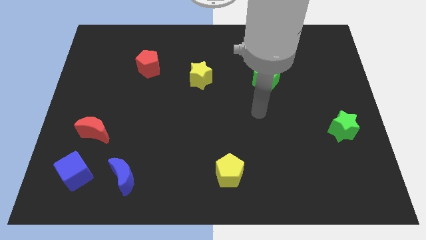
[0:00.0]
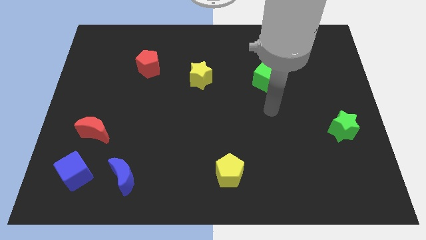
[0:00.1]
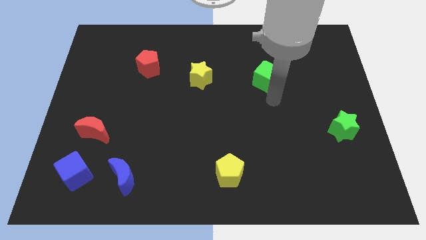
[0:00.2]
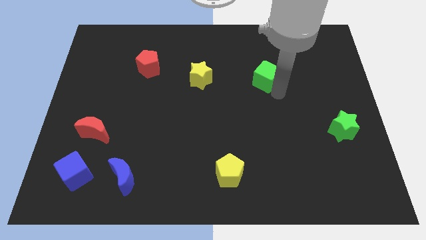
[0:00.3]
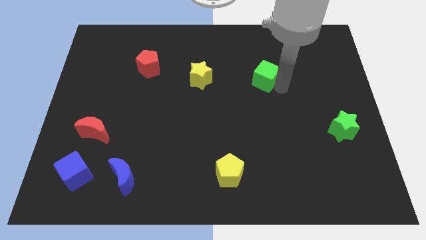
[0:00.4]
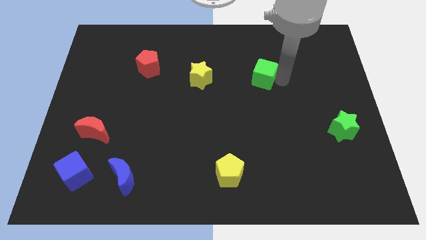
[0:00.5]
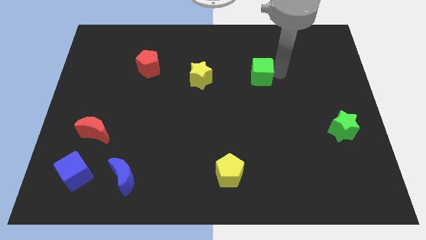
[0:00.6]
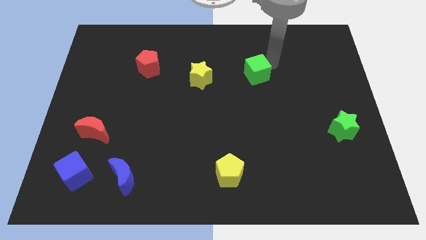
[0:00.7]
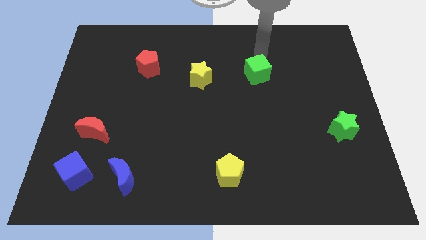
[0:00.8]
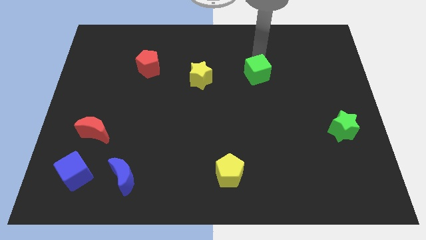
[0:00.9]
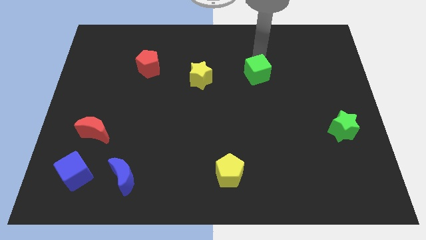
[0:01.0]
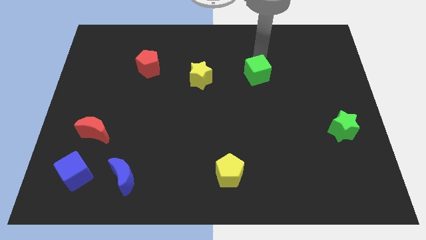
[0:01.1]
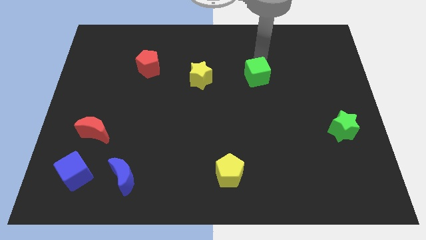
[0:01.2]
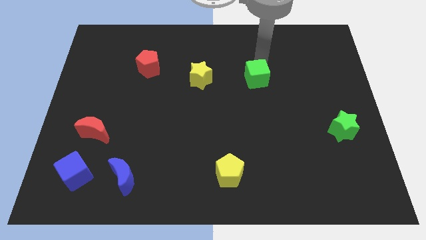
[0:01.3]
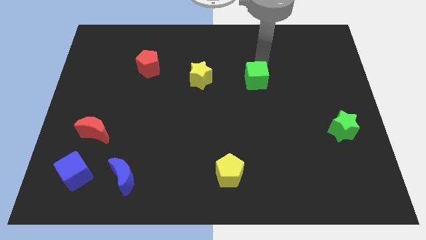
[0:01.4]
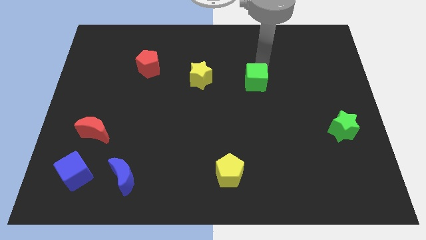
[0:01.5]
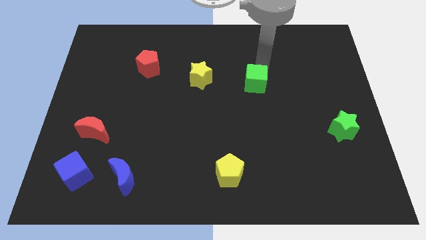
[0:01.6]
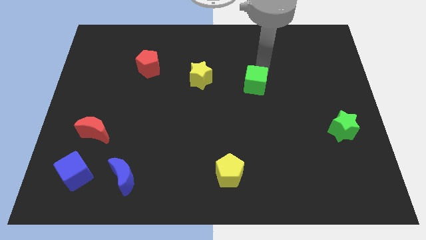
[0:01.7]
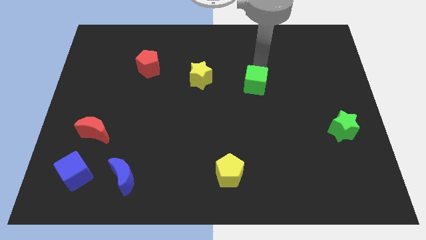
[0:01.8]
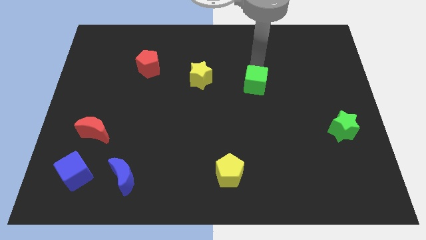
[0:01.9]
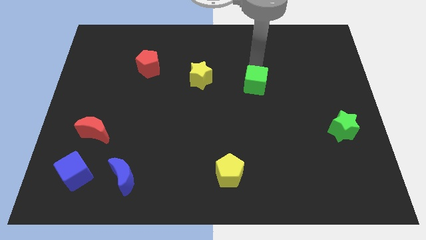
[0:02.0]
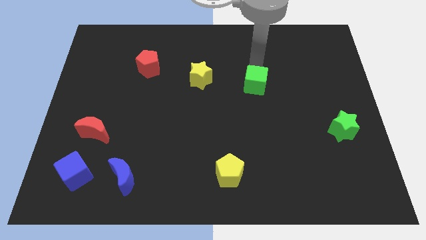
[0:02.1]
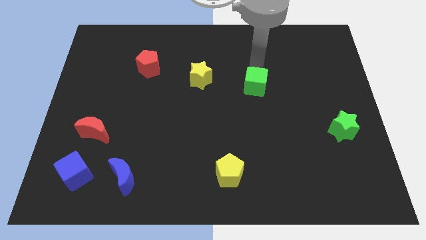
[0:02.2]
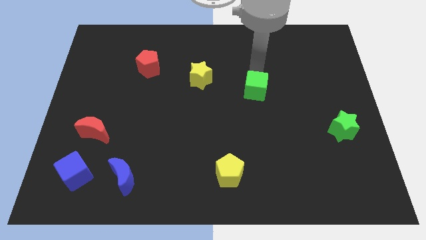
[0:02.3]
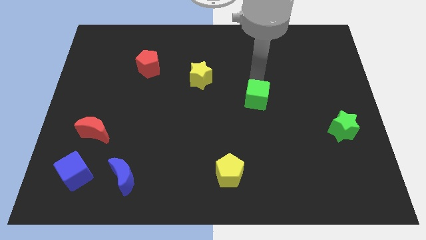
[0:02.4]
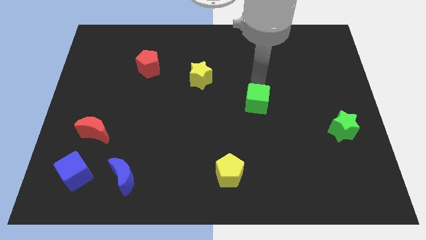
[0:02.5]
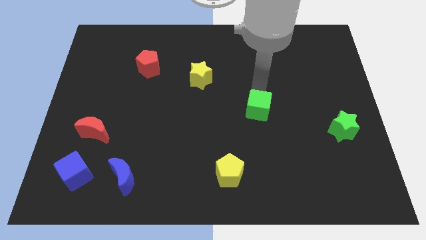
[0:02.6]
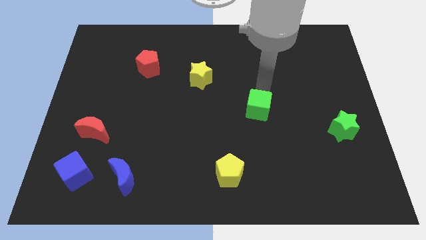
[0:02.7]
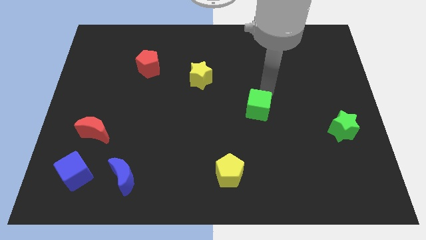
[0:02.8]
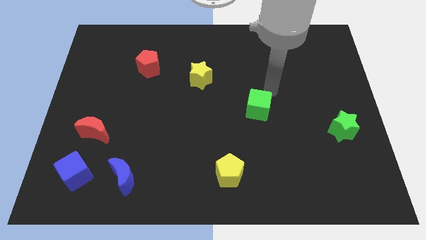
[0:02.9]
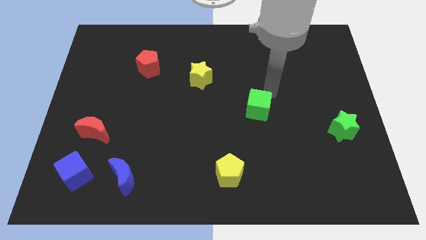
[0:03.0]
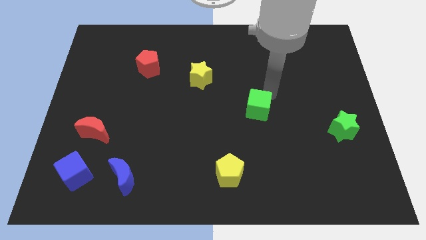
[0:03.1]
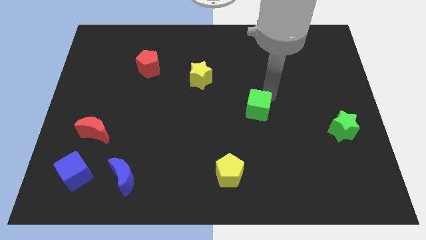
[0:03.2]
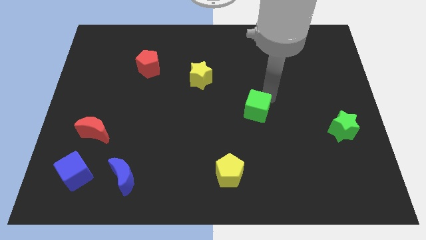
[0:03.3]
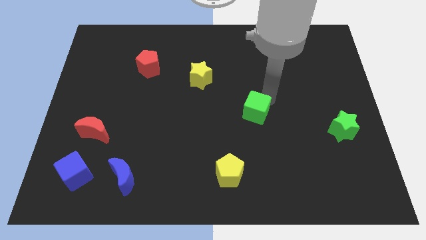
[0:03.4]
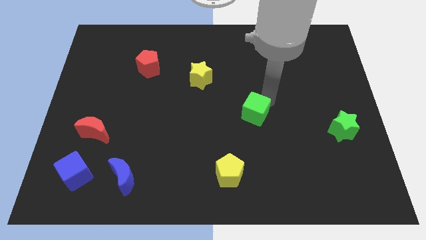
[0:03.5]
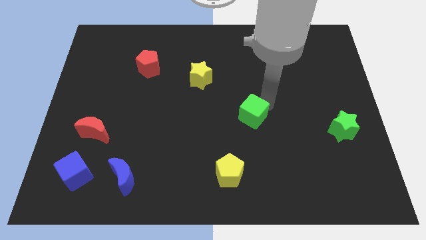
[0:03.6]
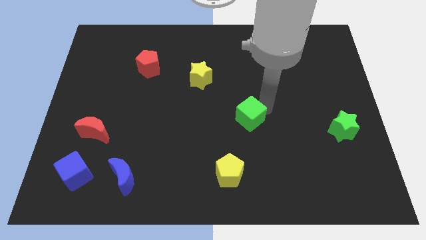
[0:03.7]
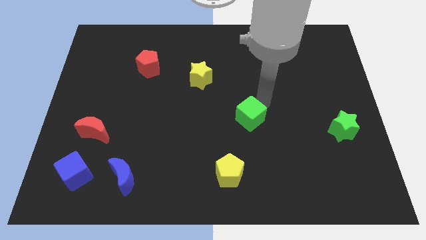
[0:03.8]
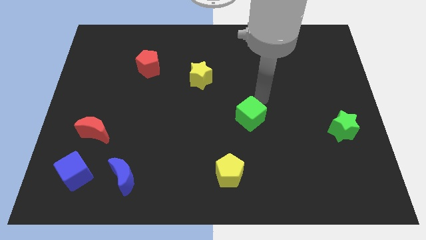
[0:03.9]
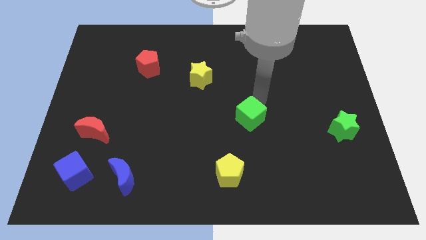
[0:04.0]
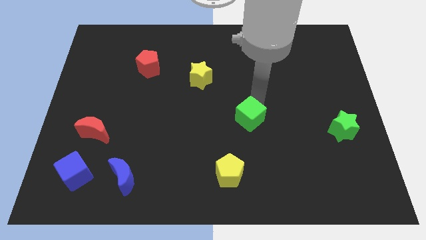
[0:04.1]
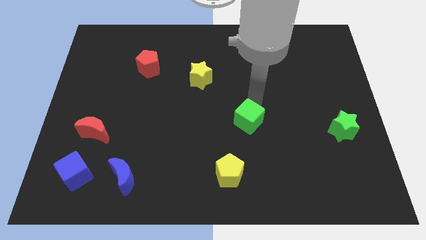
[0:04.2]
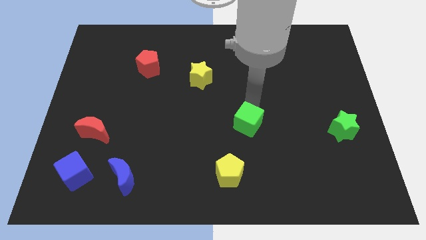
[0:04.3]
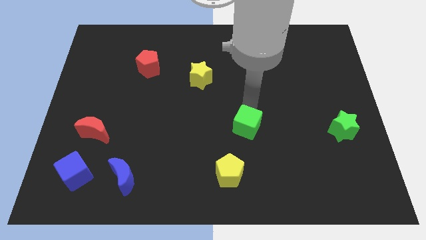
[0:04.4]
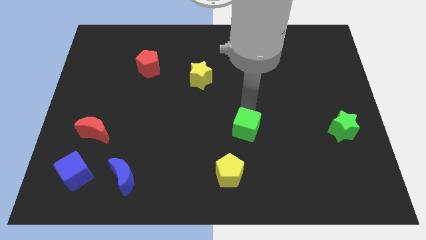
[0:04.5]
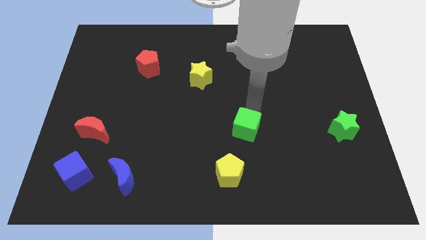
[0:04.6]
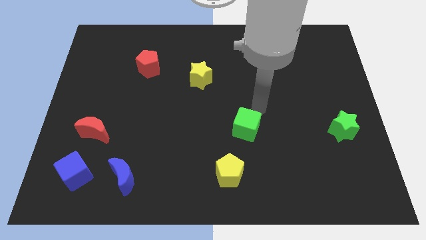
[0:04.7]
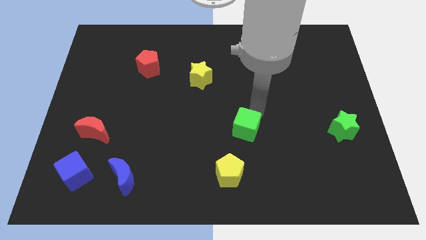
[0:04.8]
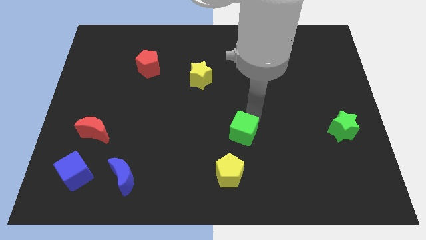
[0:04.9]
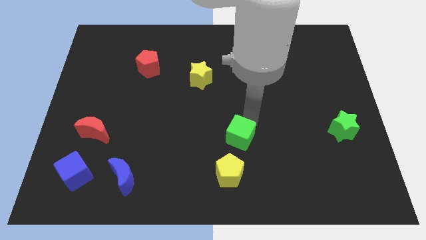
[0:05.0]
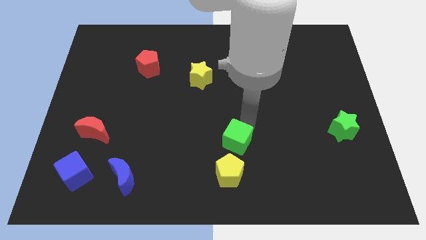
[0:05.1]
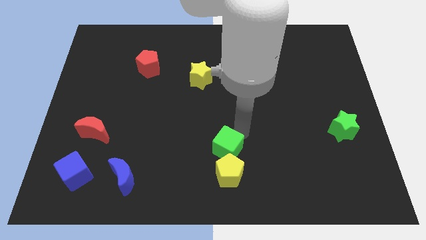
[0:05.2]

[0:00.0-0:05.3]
push the green cube to the yellow pentagon

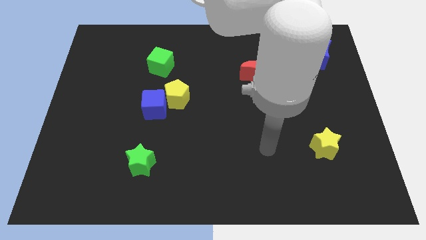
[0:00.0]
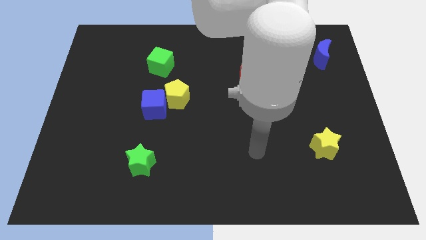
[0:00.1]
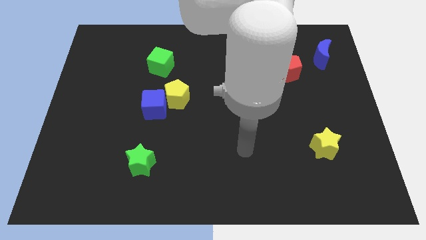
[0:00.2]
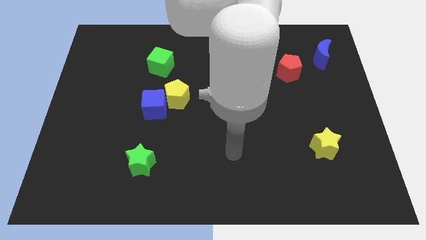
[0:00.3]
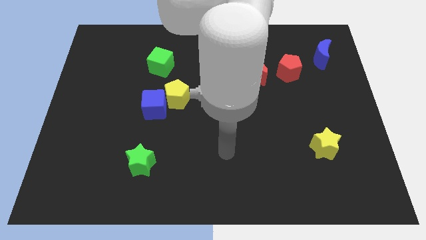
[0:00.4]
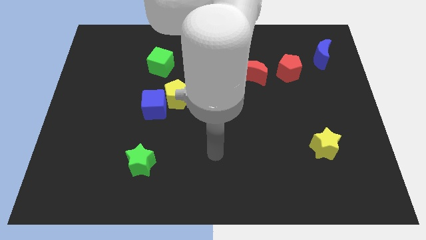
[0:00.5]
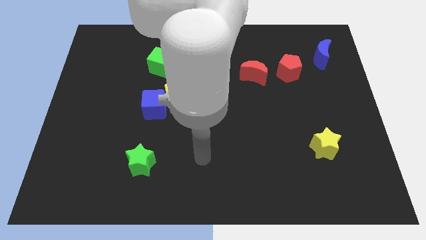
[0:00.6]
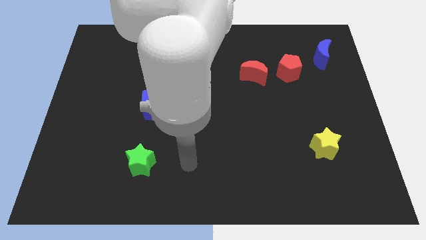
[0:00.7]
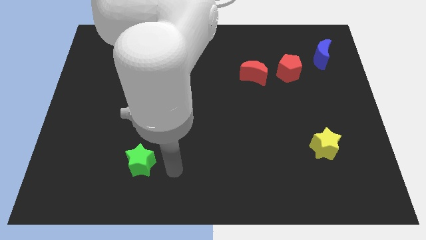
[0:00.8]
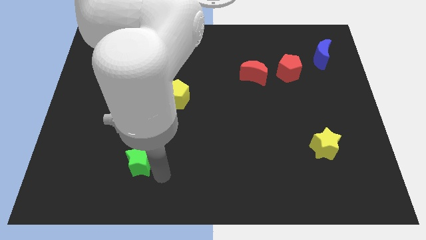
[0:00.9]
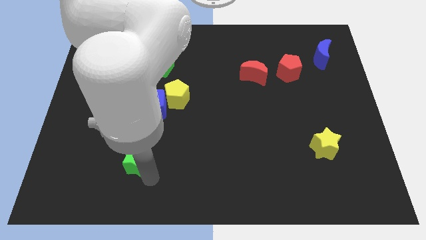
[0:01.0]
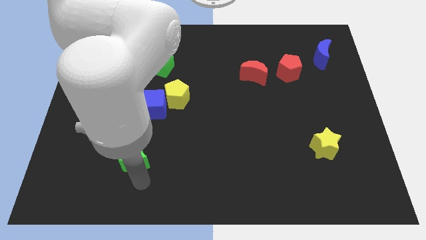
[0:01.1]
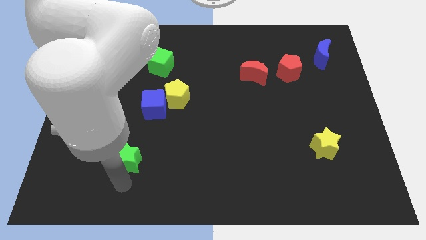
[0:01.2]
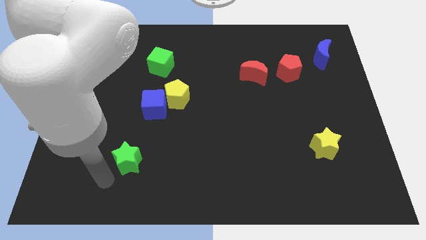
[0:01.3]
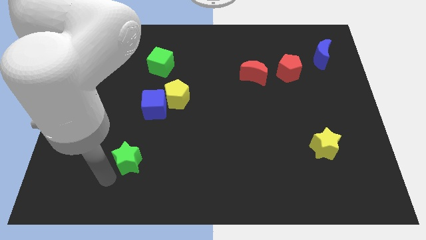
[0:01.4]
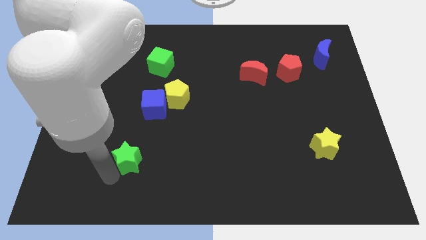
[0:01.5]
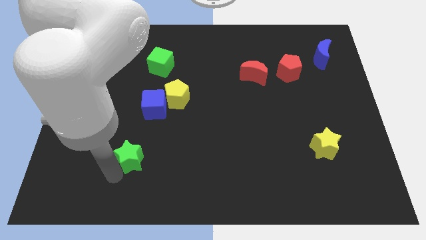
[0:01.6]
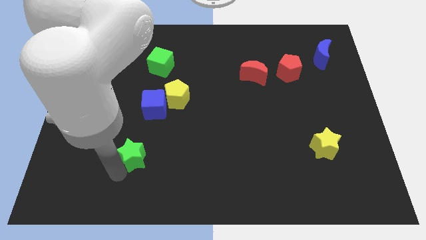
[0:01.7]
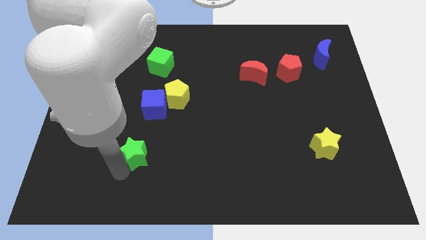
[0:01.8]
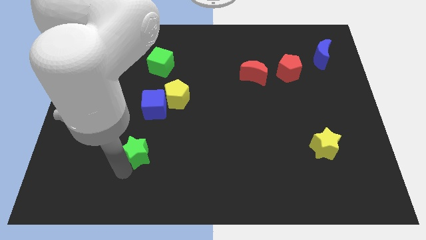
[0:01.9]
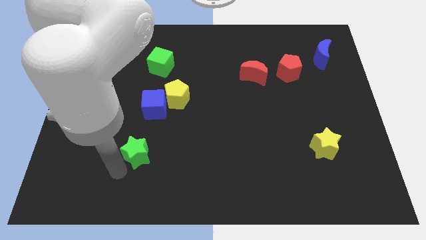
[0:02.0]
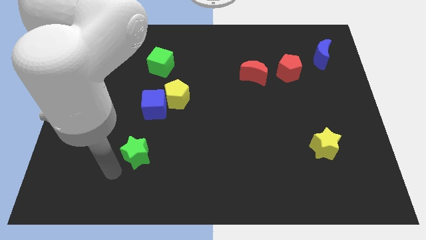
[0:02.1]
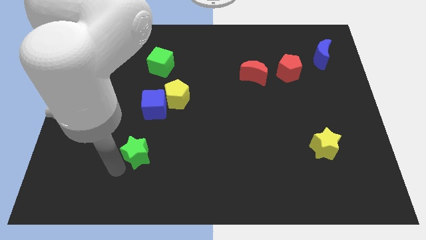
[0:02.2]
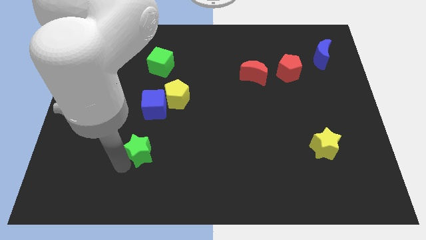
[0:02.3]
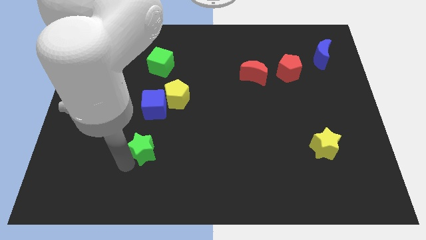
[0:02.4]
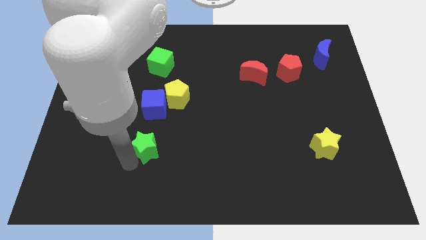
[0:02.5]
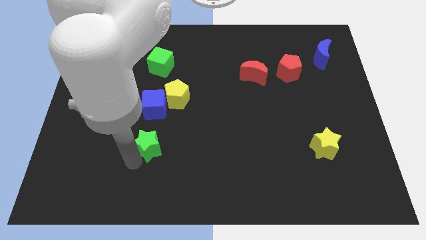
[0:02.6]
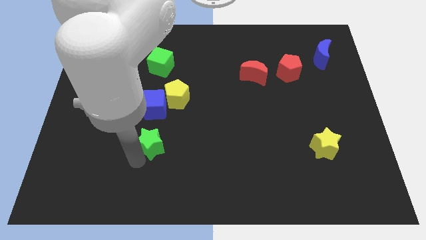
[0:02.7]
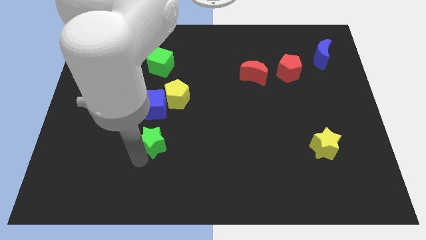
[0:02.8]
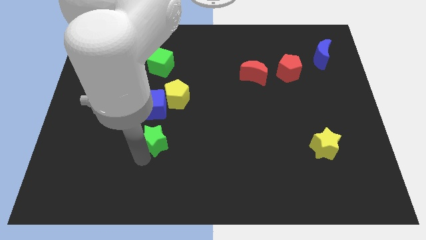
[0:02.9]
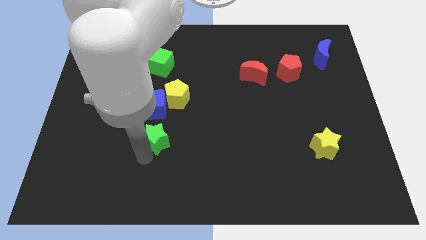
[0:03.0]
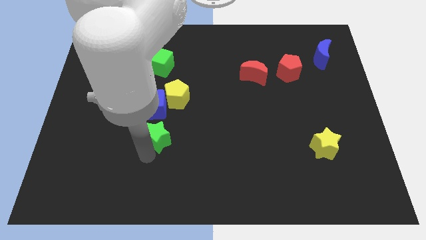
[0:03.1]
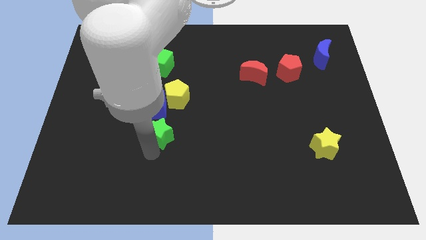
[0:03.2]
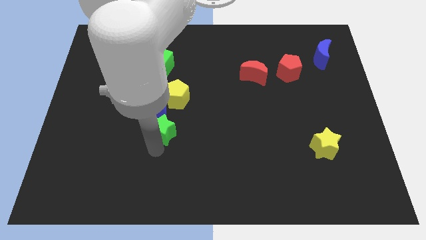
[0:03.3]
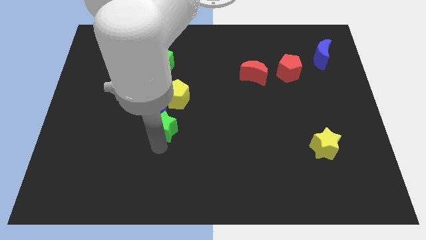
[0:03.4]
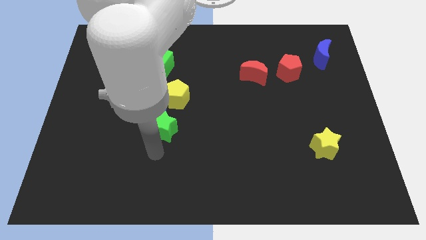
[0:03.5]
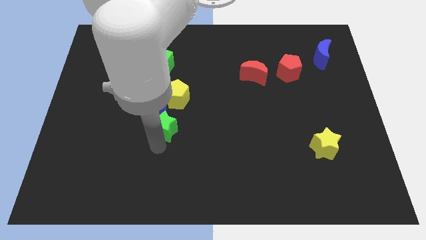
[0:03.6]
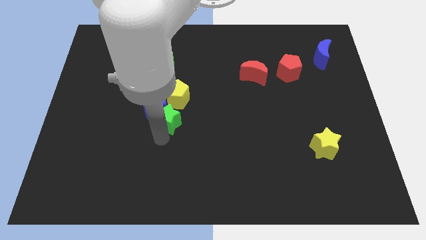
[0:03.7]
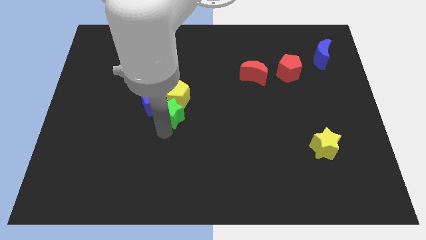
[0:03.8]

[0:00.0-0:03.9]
push the green star close to the yellow pentagon
